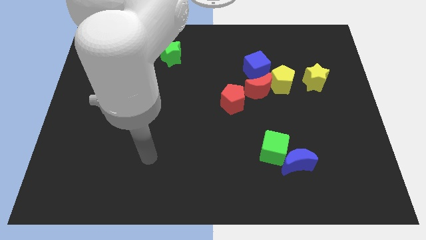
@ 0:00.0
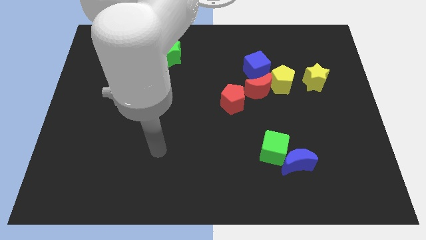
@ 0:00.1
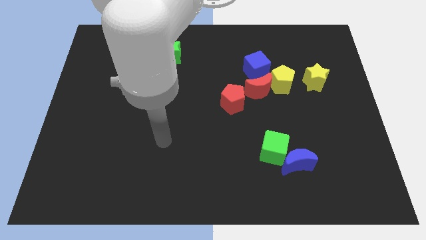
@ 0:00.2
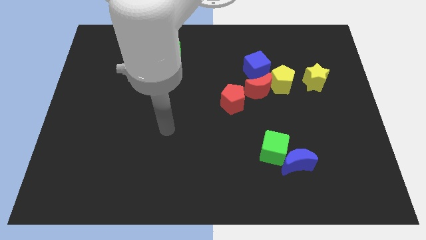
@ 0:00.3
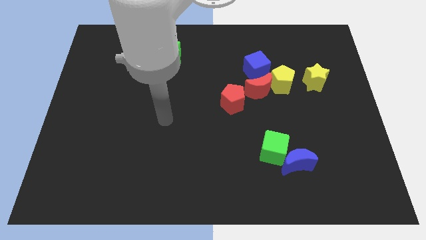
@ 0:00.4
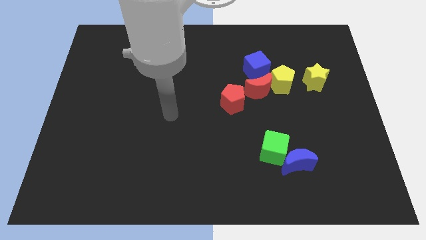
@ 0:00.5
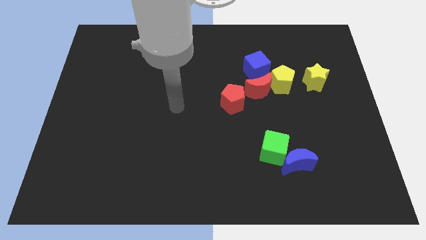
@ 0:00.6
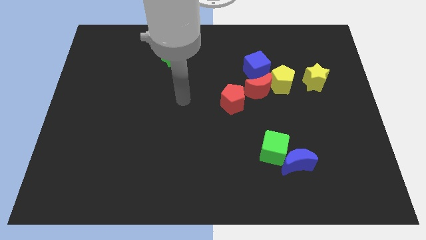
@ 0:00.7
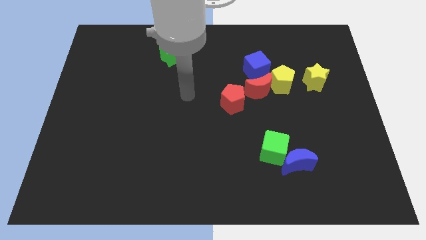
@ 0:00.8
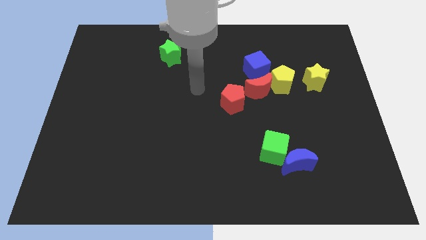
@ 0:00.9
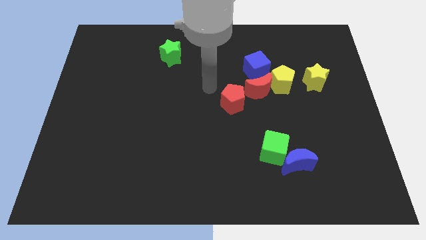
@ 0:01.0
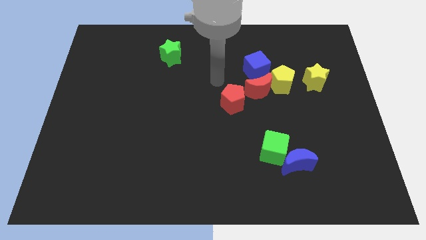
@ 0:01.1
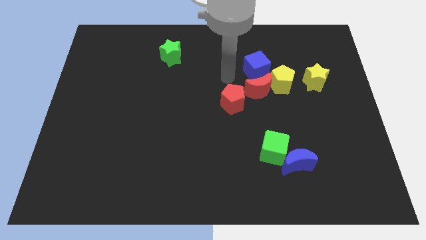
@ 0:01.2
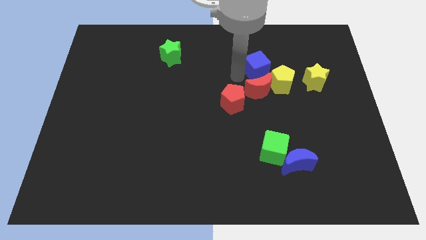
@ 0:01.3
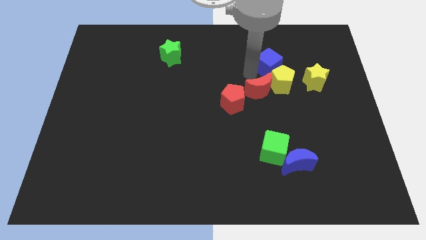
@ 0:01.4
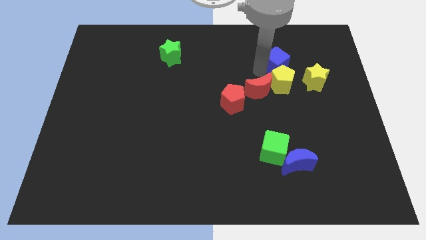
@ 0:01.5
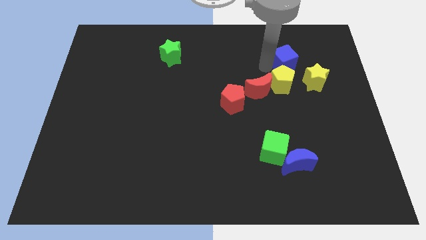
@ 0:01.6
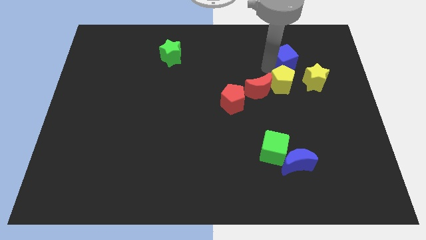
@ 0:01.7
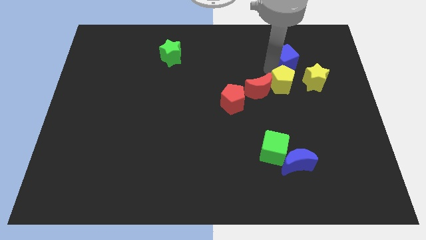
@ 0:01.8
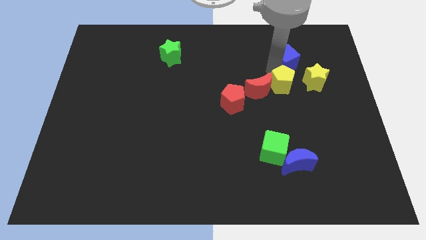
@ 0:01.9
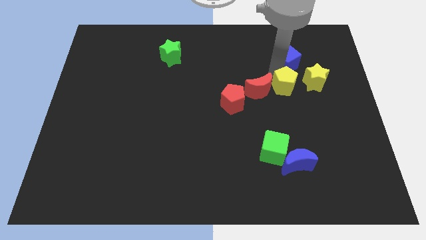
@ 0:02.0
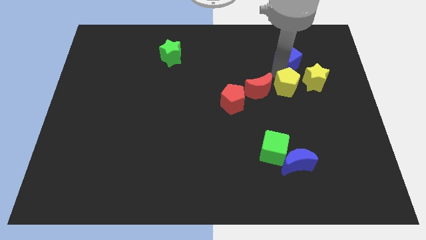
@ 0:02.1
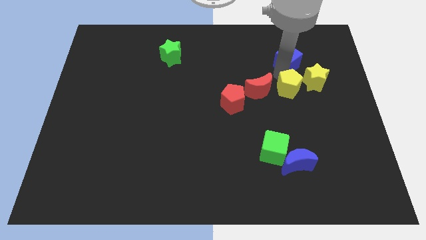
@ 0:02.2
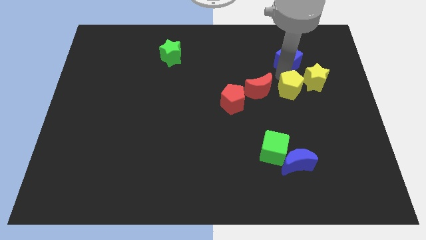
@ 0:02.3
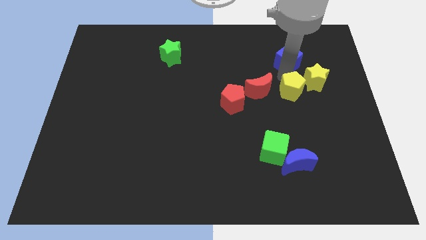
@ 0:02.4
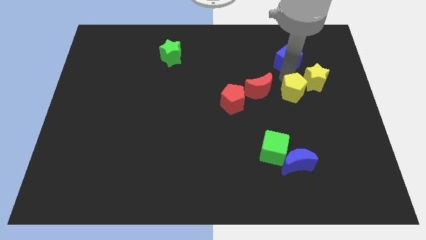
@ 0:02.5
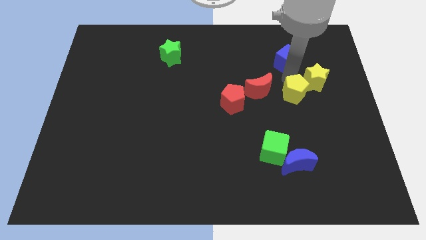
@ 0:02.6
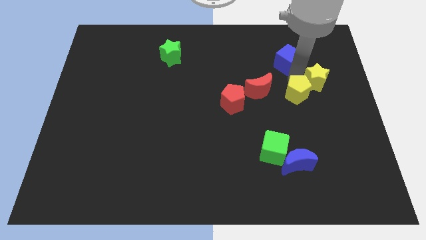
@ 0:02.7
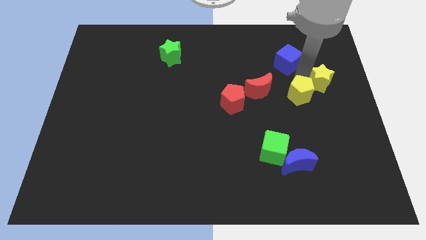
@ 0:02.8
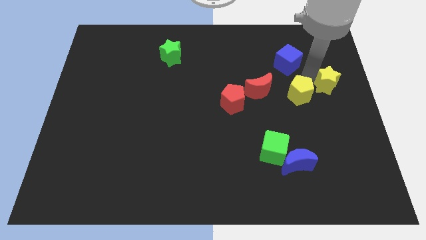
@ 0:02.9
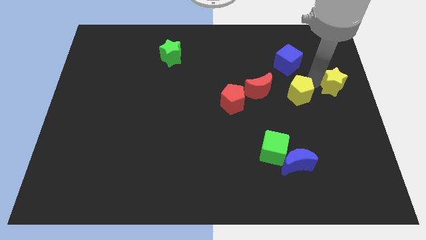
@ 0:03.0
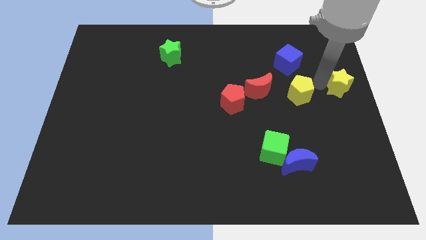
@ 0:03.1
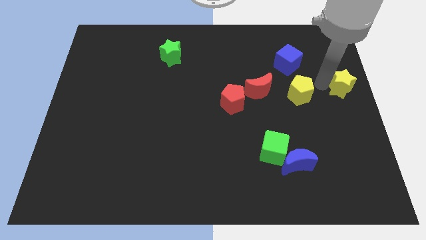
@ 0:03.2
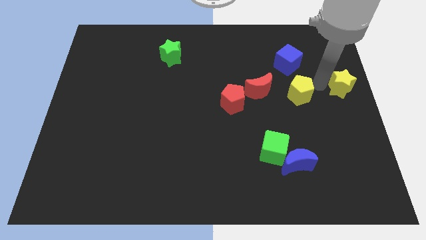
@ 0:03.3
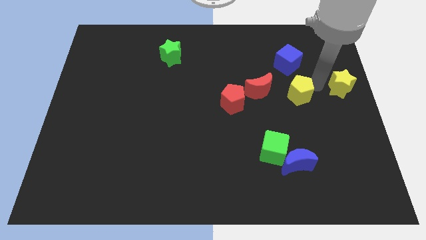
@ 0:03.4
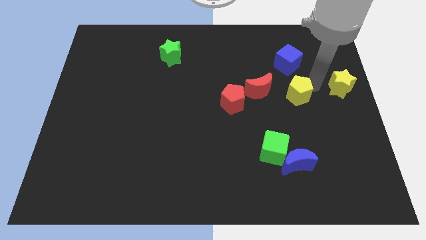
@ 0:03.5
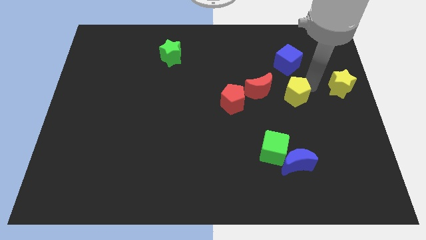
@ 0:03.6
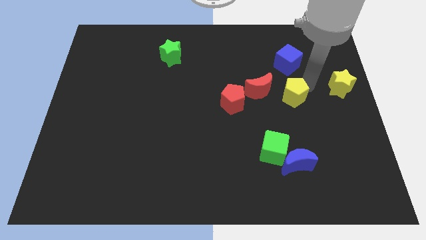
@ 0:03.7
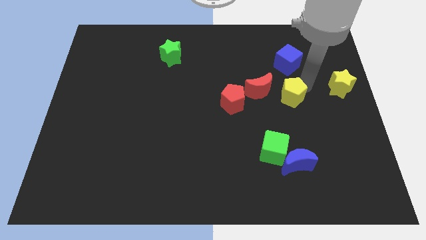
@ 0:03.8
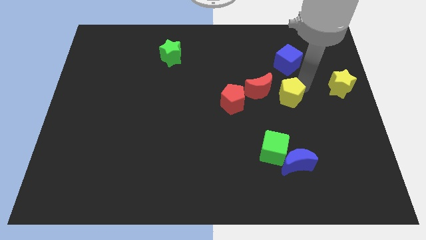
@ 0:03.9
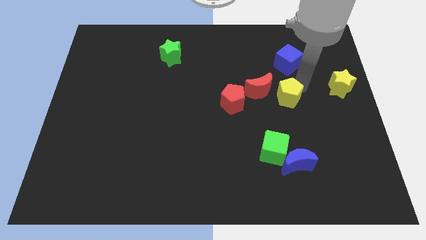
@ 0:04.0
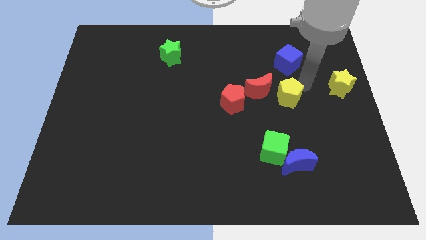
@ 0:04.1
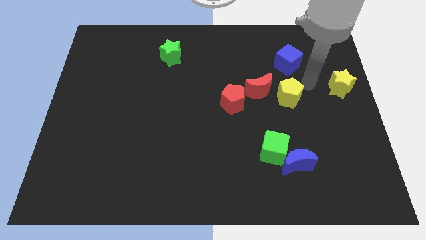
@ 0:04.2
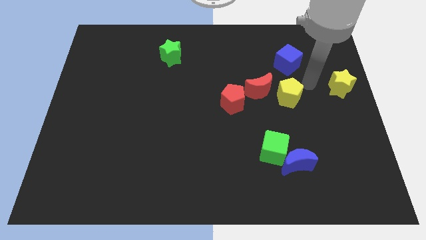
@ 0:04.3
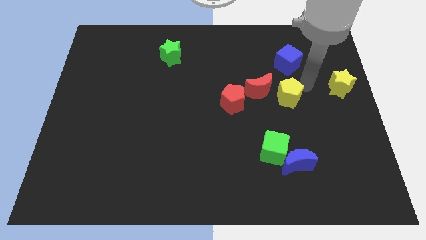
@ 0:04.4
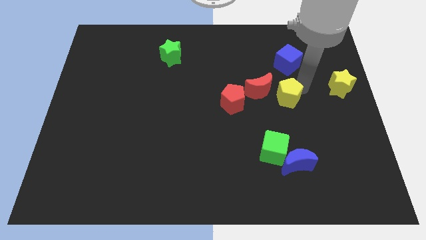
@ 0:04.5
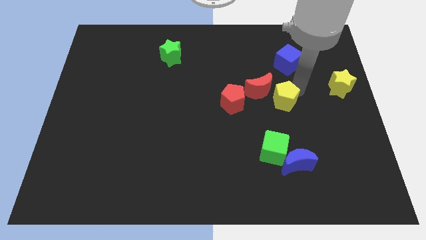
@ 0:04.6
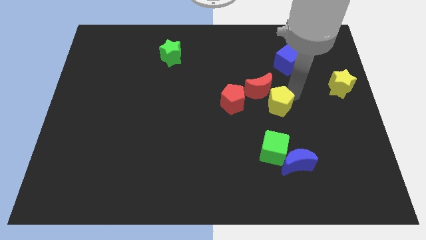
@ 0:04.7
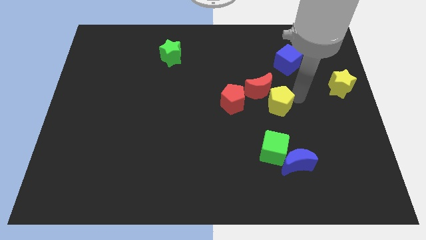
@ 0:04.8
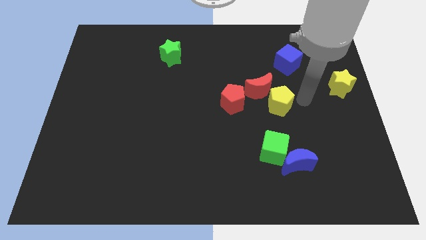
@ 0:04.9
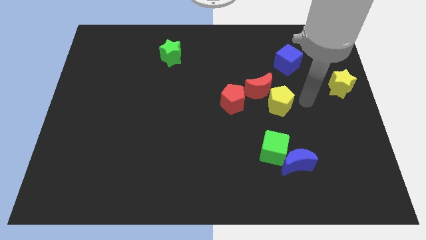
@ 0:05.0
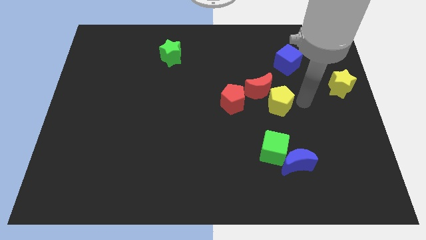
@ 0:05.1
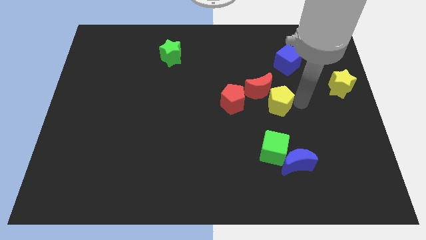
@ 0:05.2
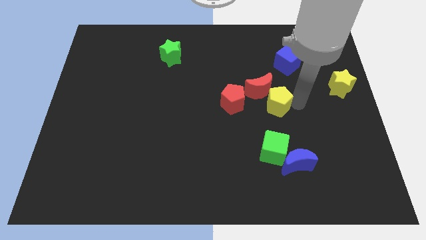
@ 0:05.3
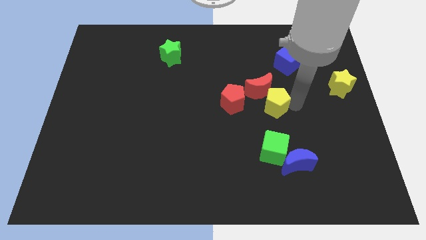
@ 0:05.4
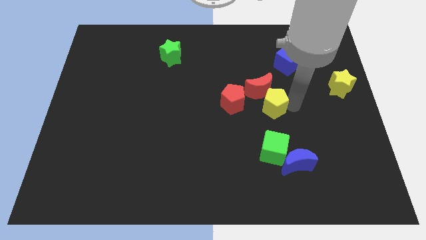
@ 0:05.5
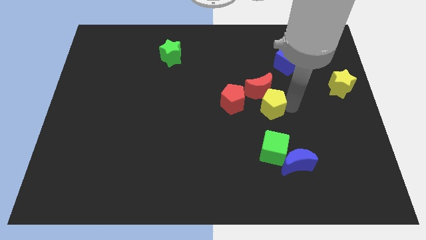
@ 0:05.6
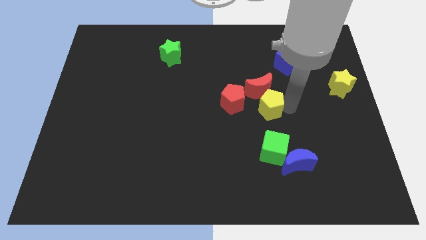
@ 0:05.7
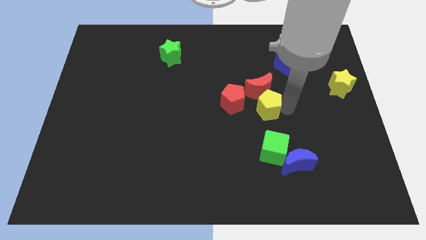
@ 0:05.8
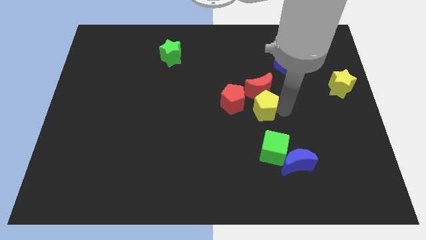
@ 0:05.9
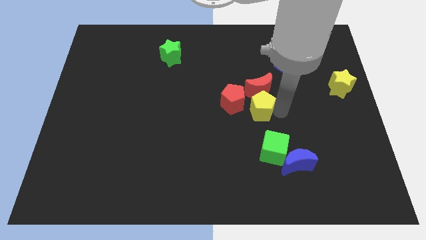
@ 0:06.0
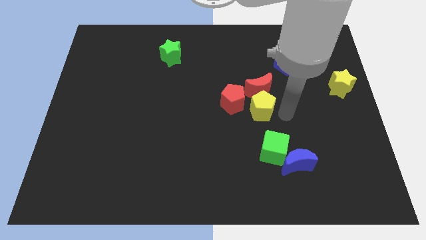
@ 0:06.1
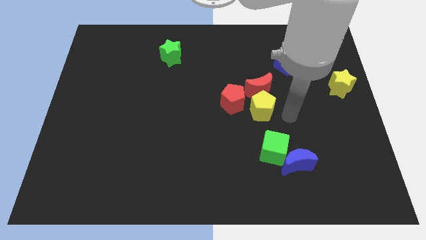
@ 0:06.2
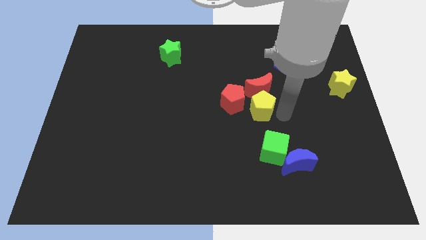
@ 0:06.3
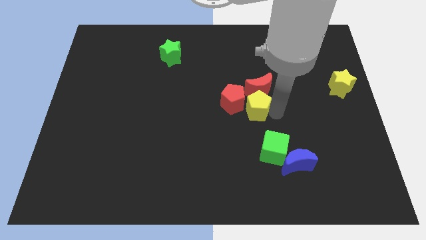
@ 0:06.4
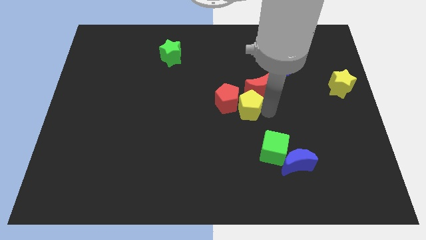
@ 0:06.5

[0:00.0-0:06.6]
put the yellow pentagon next to the red pentagon
